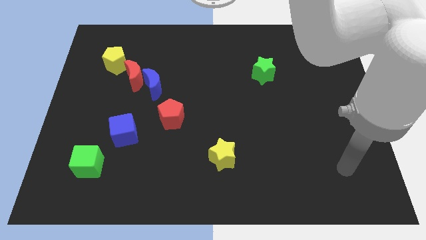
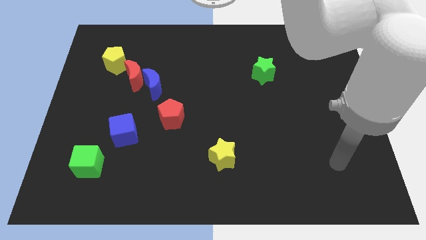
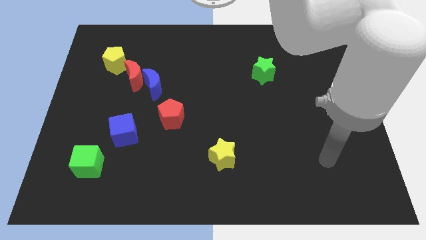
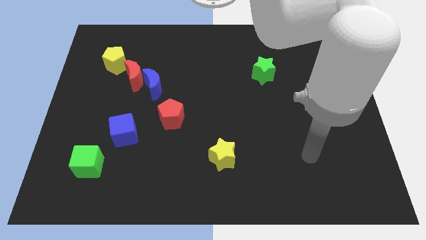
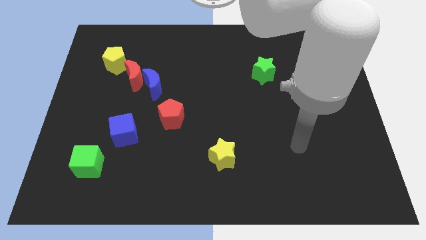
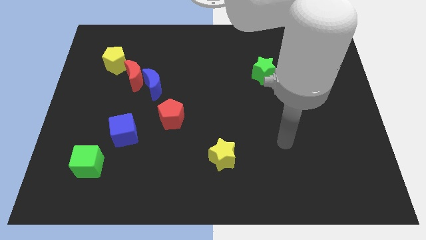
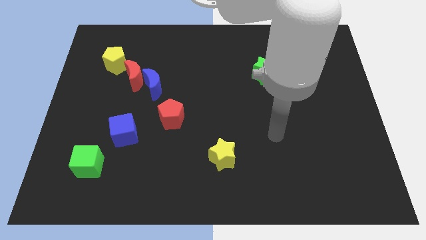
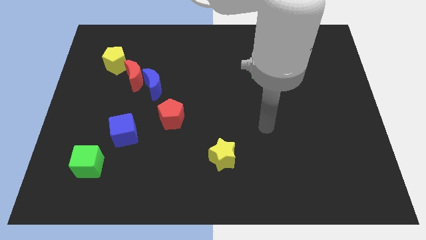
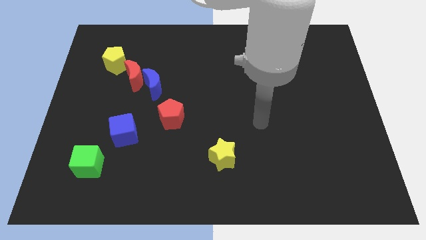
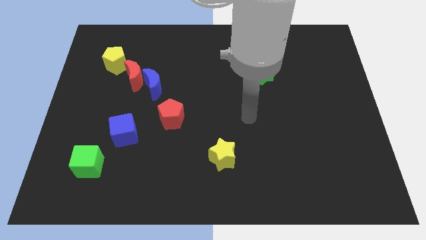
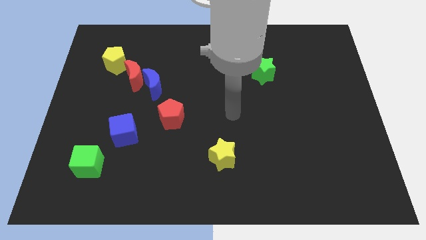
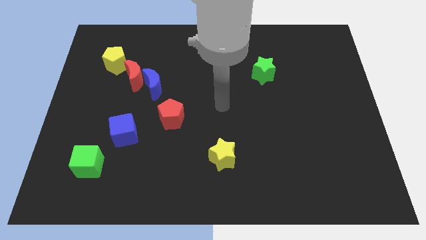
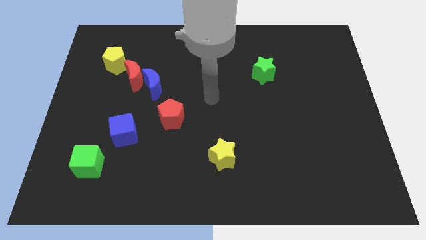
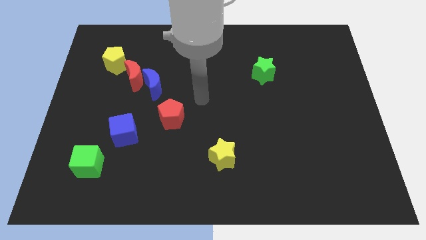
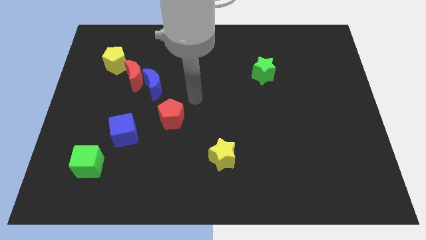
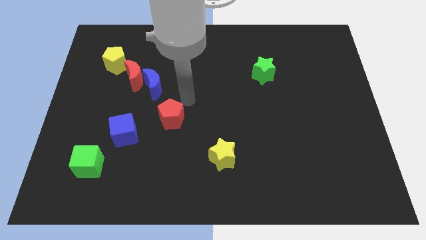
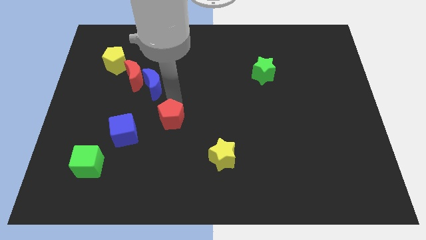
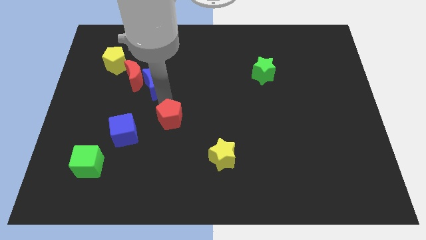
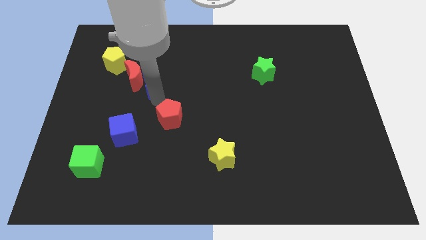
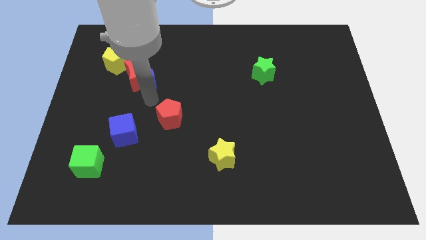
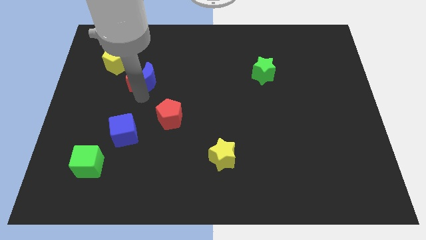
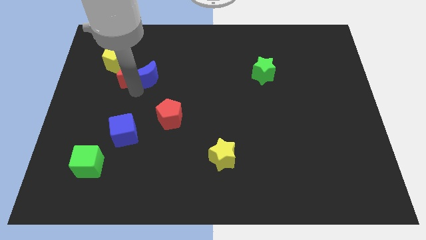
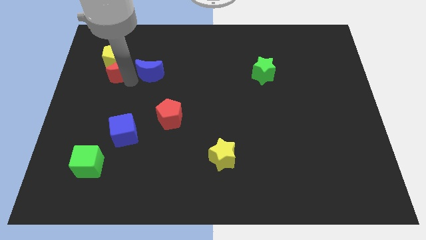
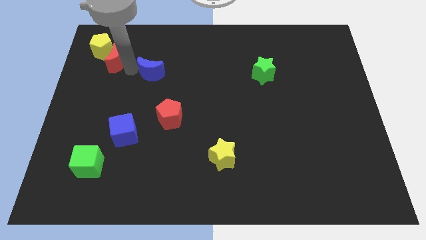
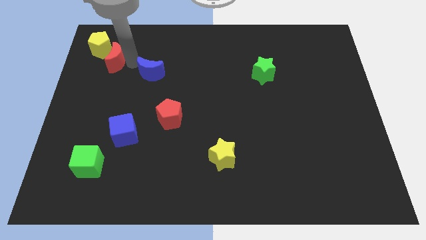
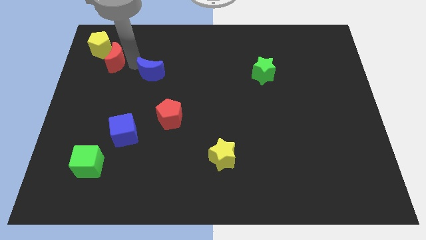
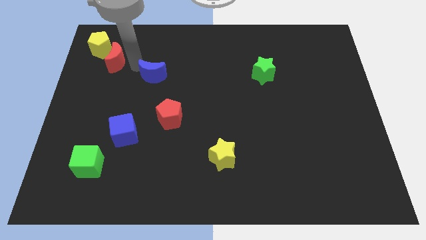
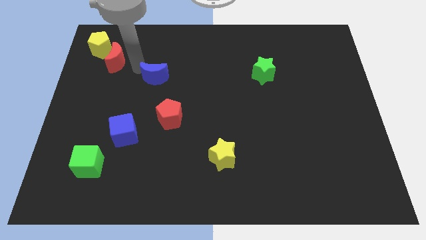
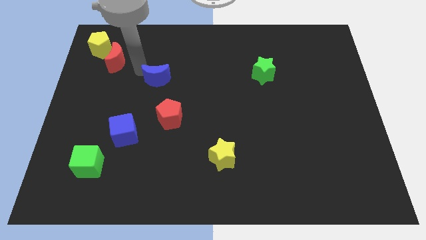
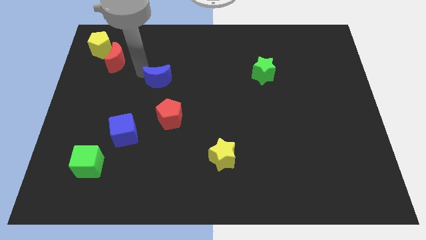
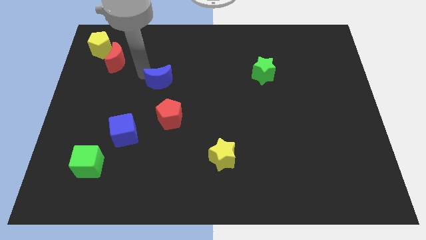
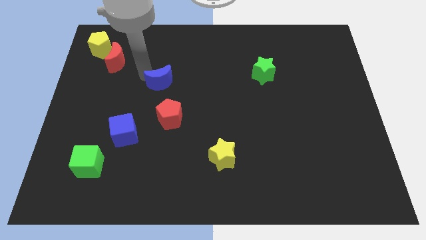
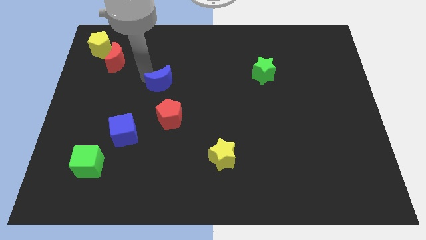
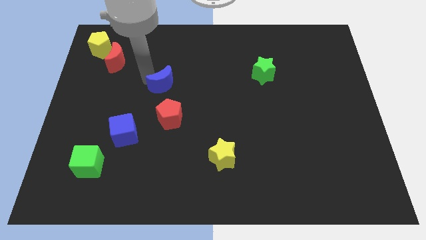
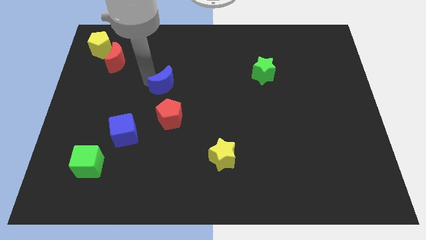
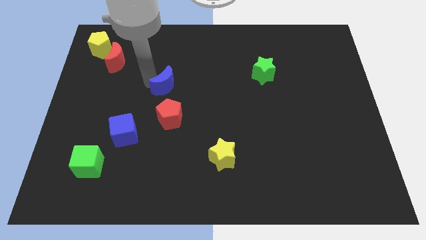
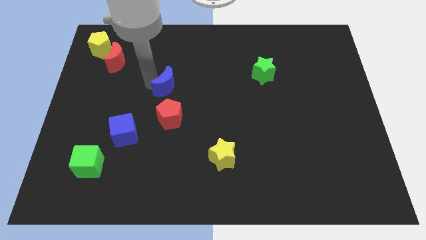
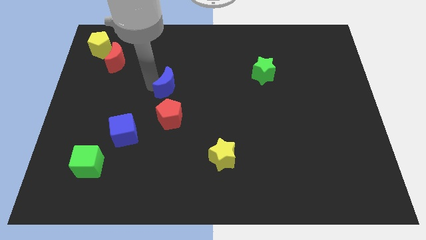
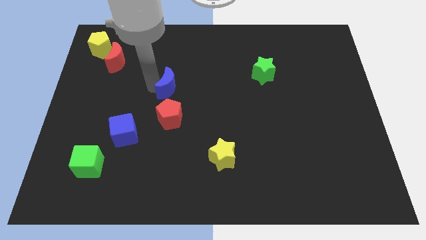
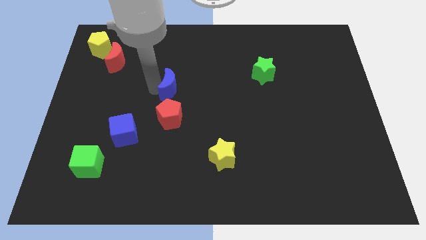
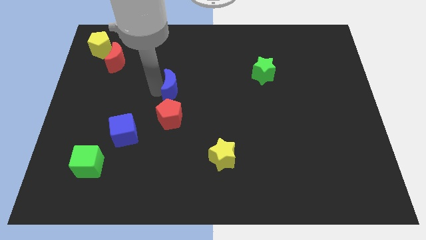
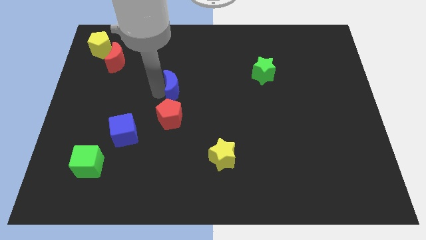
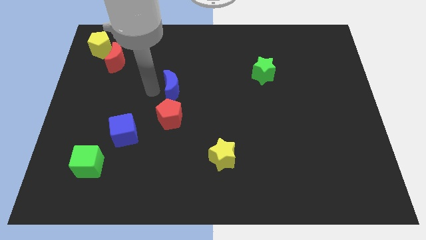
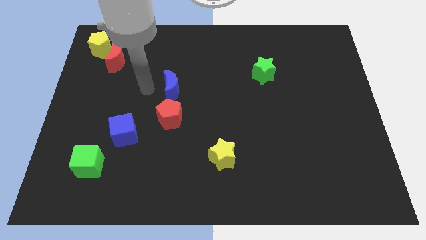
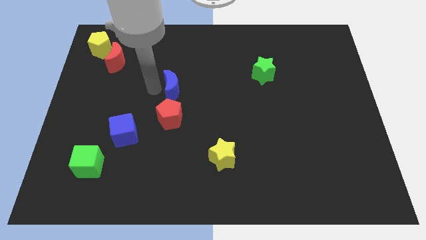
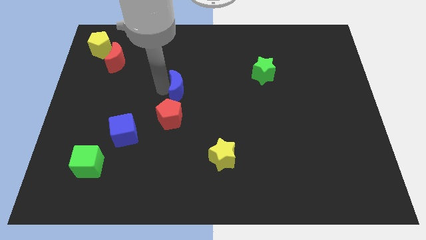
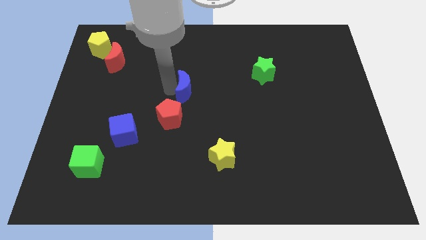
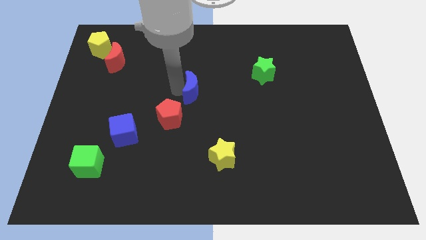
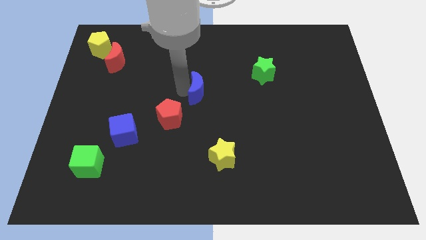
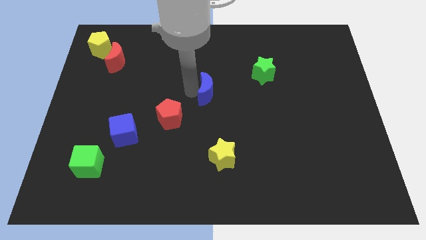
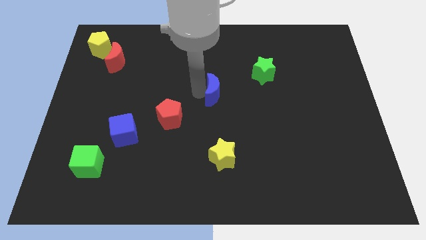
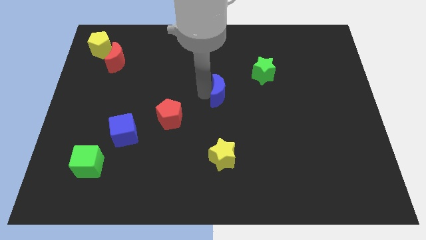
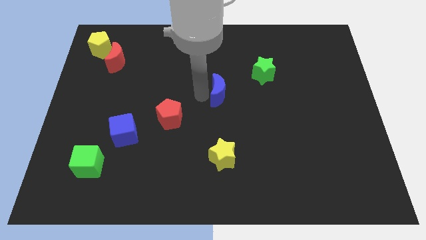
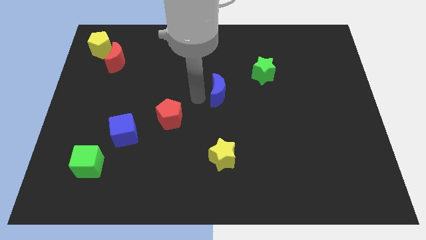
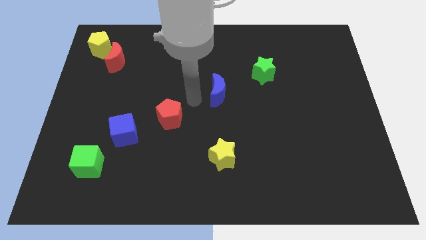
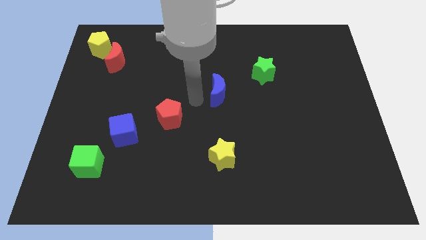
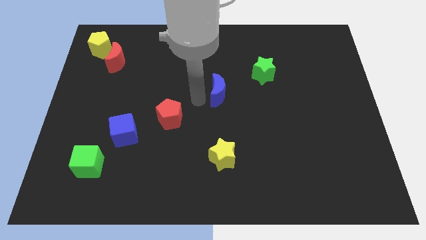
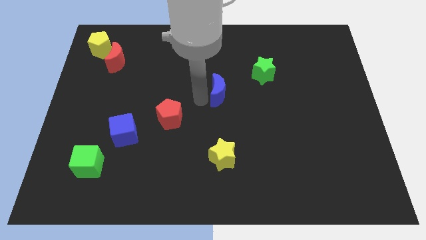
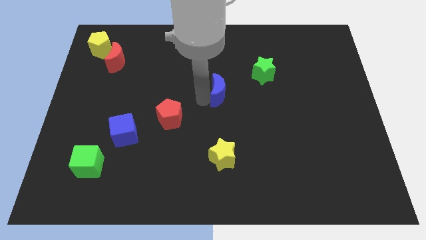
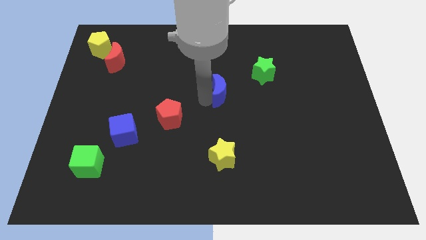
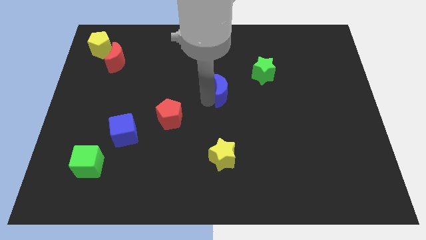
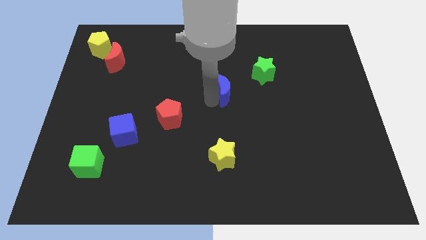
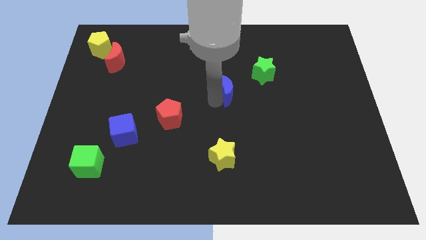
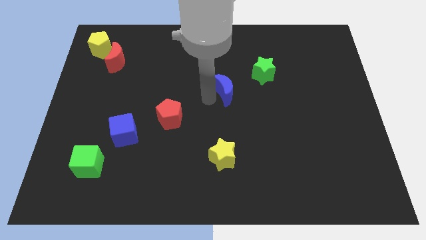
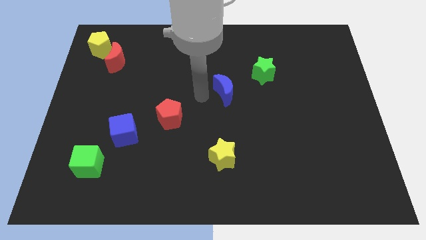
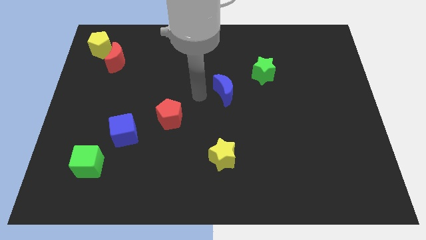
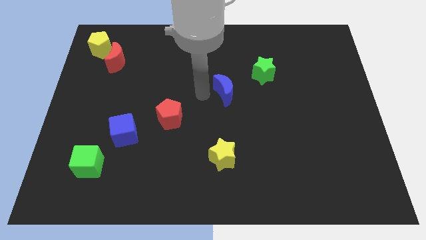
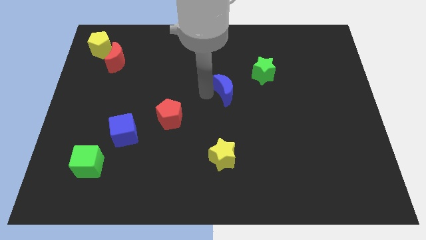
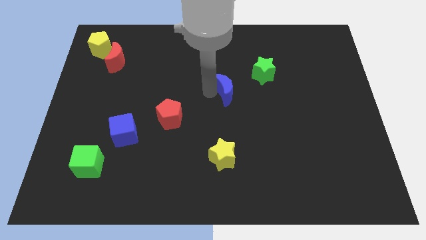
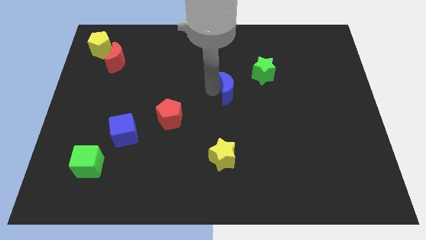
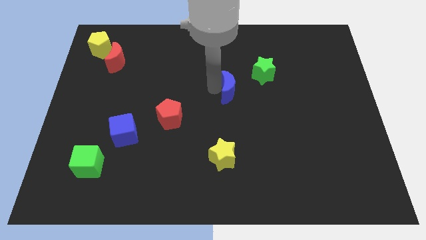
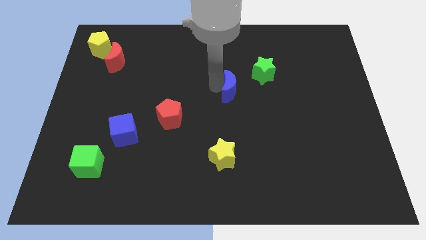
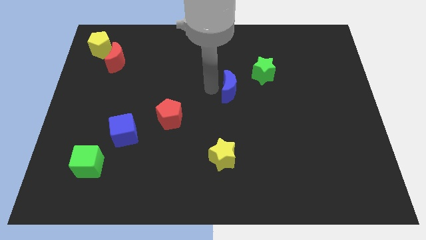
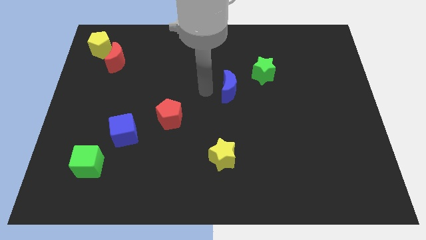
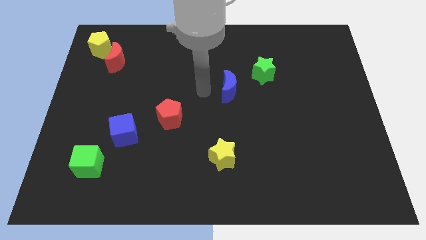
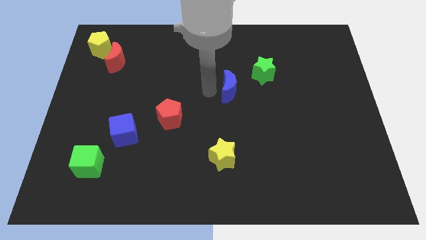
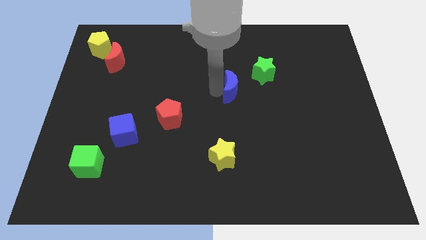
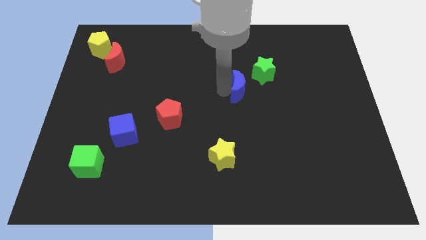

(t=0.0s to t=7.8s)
slide the blue moon right
